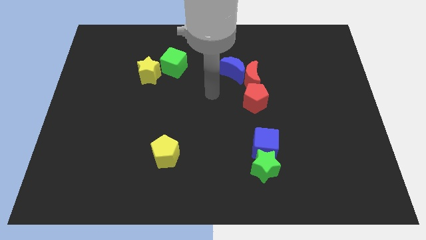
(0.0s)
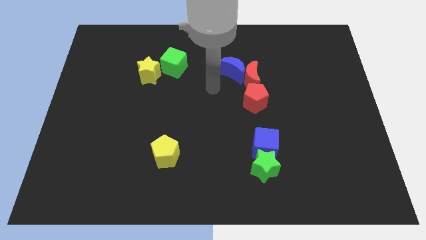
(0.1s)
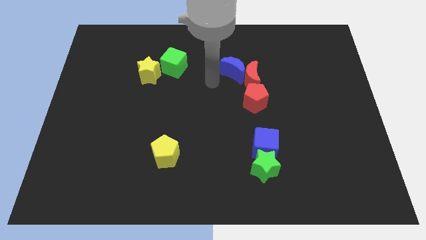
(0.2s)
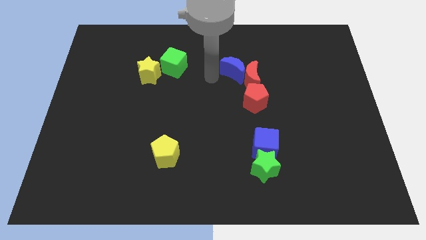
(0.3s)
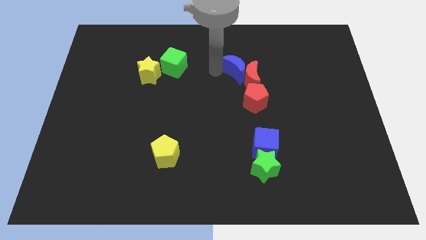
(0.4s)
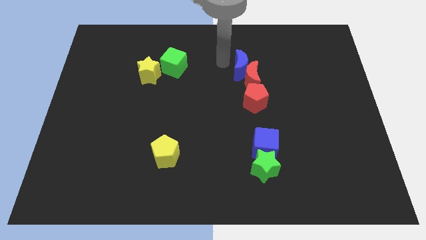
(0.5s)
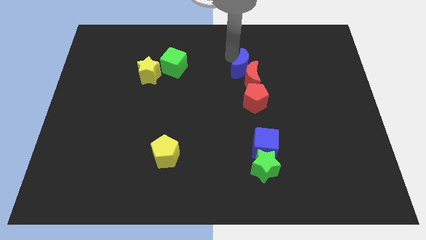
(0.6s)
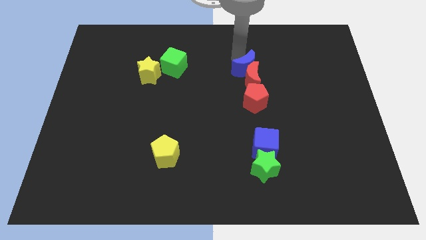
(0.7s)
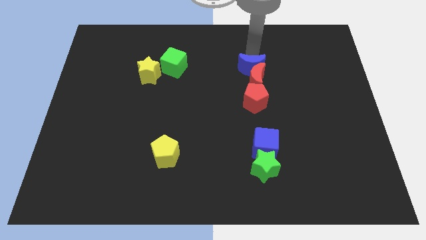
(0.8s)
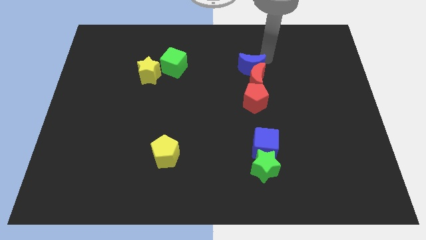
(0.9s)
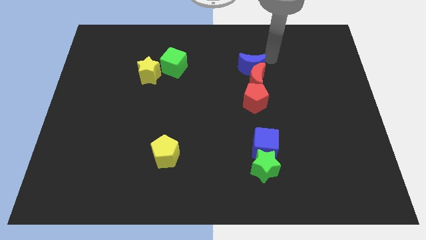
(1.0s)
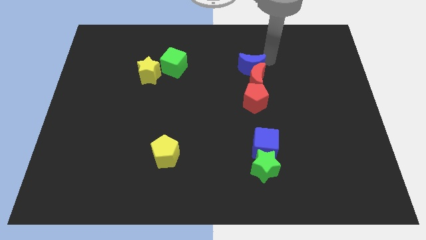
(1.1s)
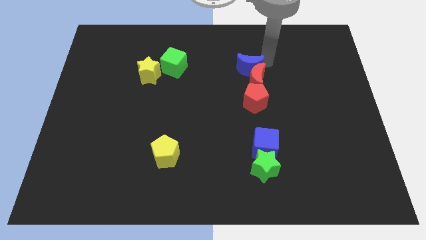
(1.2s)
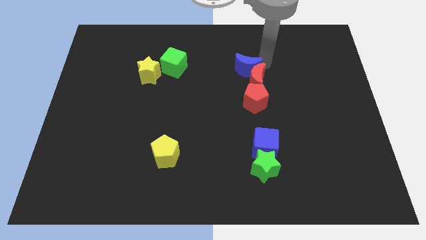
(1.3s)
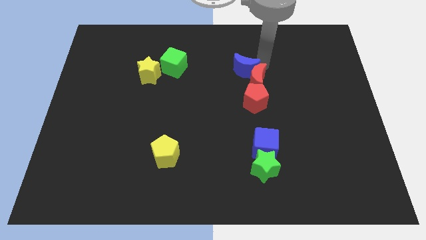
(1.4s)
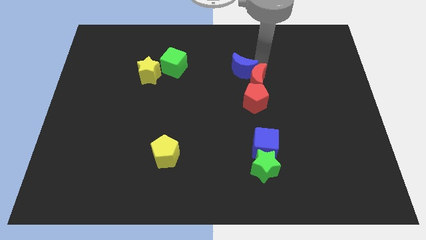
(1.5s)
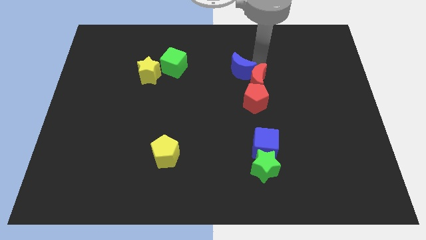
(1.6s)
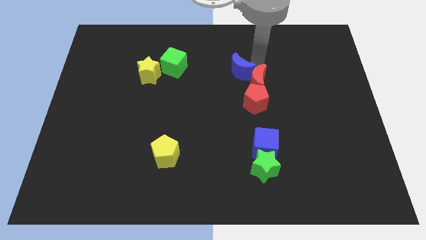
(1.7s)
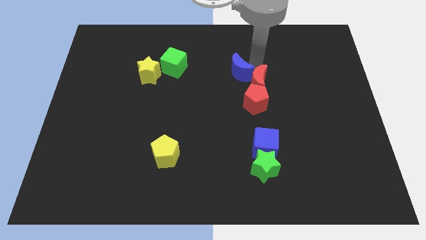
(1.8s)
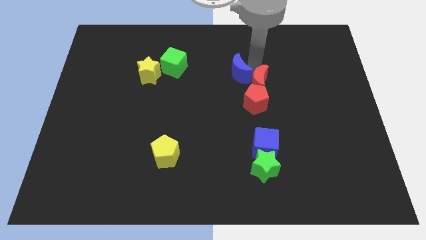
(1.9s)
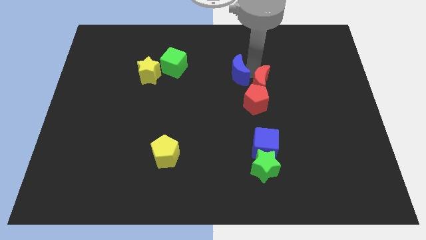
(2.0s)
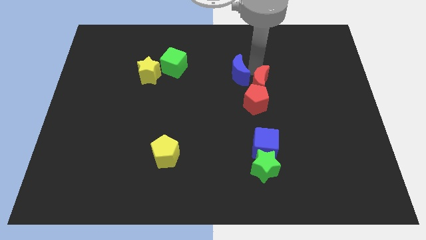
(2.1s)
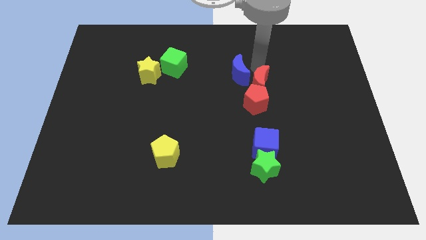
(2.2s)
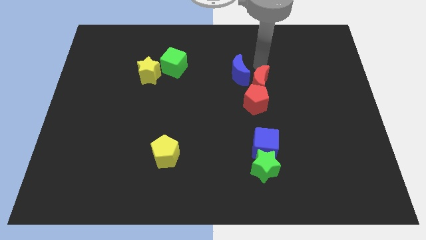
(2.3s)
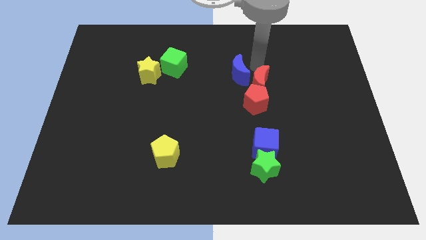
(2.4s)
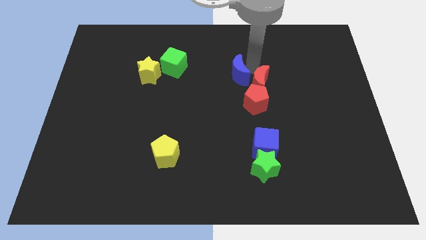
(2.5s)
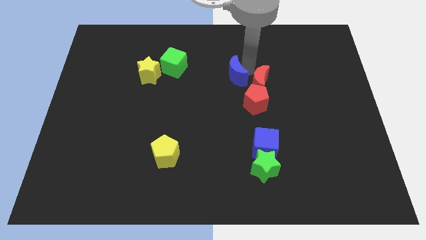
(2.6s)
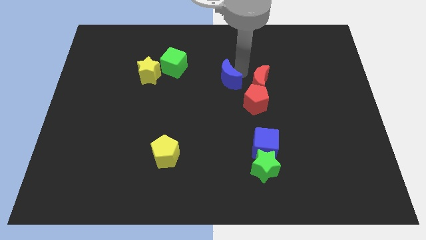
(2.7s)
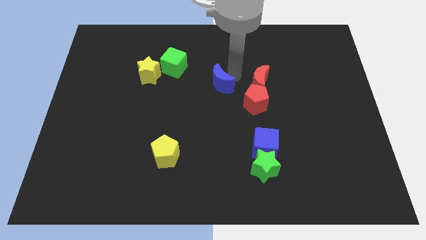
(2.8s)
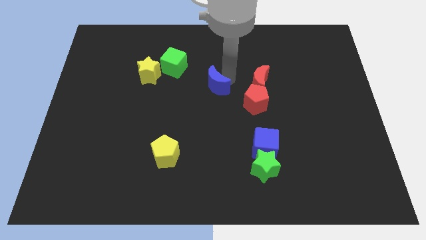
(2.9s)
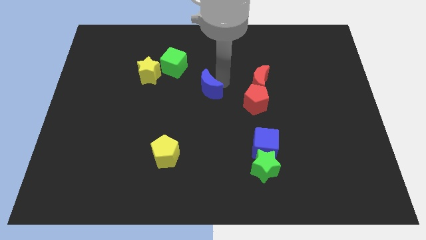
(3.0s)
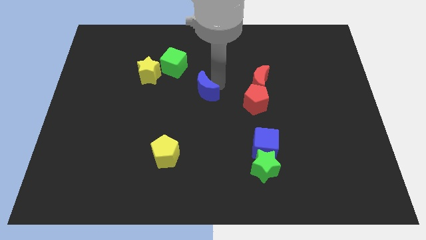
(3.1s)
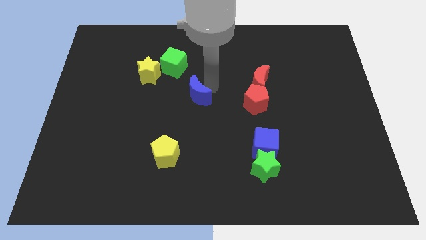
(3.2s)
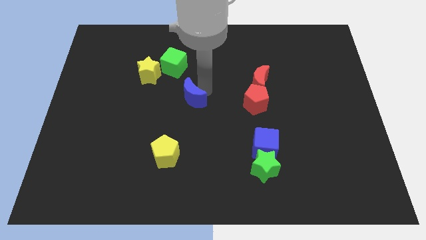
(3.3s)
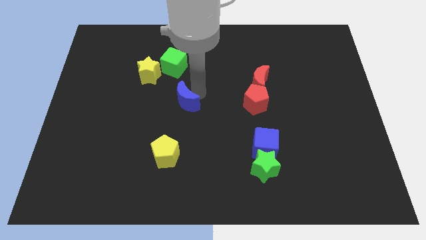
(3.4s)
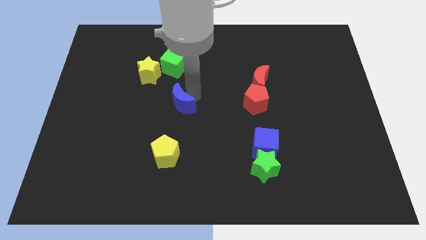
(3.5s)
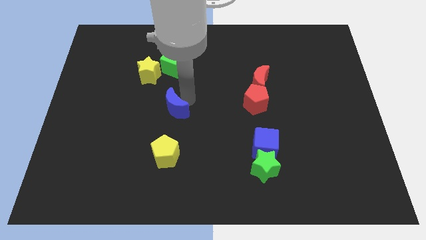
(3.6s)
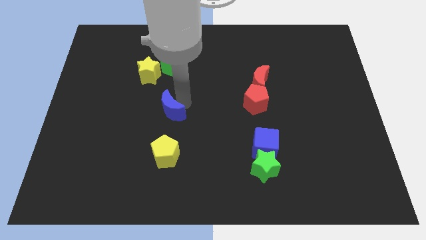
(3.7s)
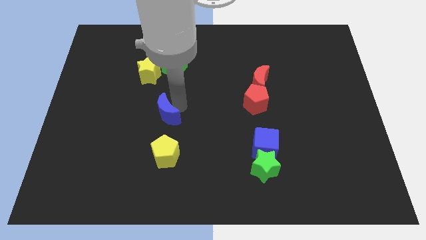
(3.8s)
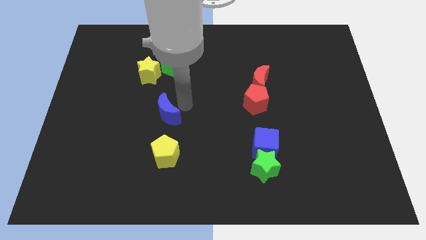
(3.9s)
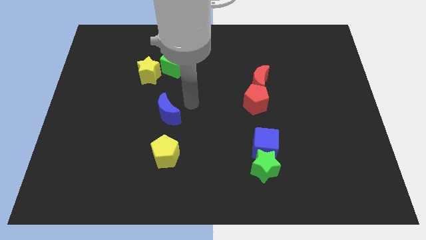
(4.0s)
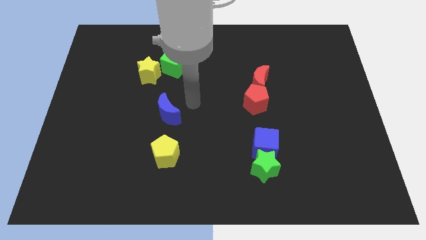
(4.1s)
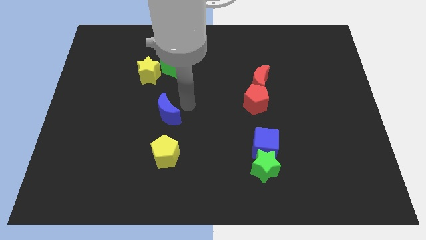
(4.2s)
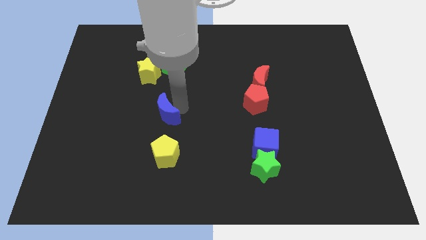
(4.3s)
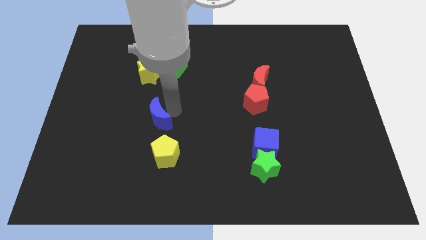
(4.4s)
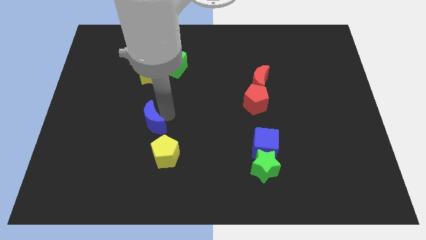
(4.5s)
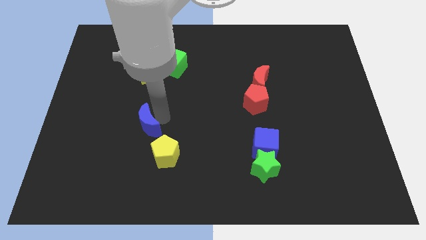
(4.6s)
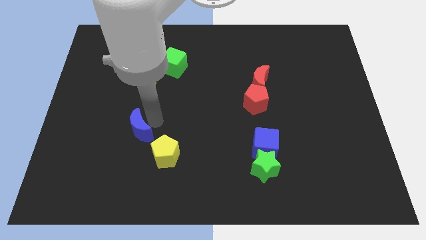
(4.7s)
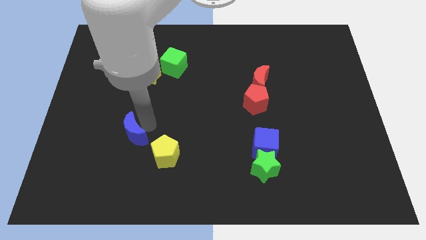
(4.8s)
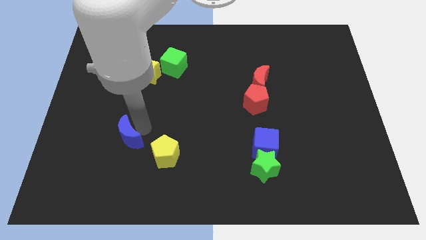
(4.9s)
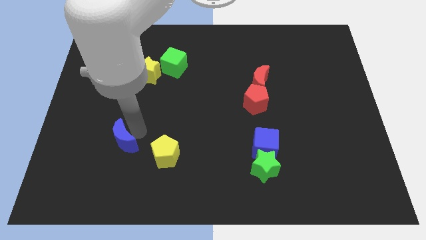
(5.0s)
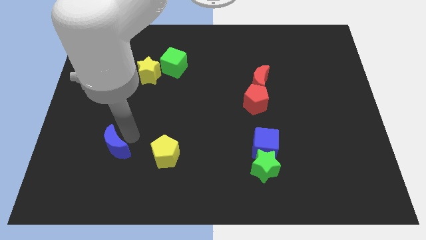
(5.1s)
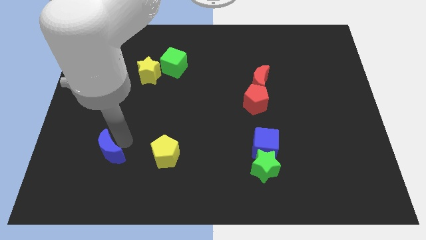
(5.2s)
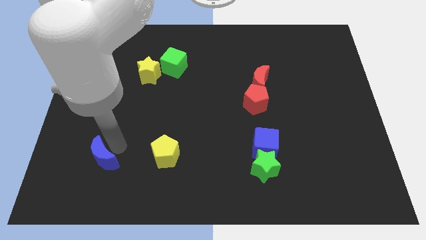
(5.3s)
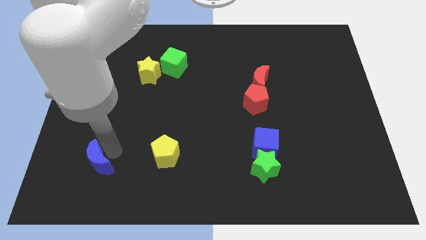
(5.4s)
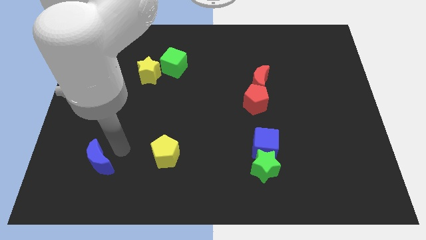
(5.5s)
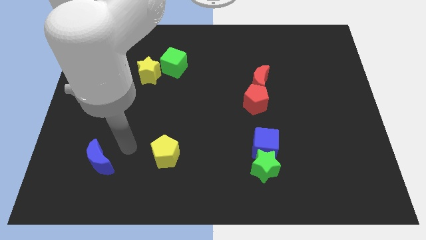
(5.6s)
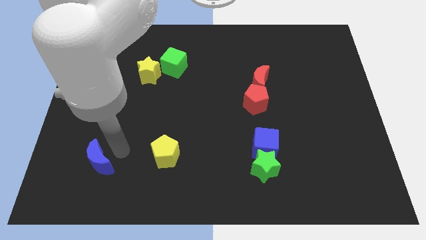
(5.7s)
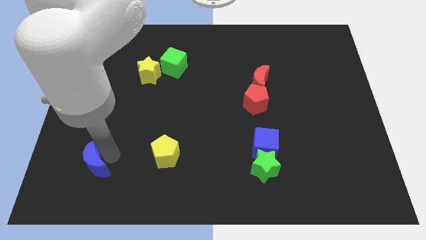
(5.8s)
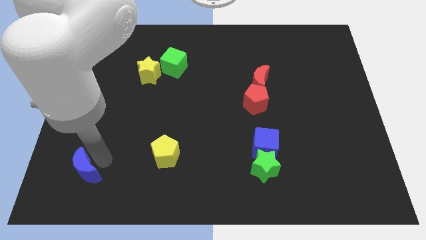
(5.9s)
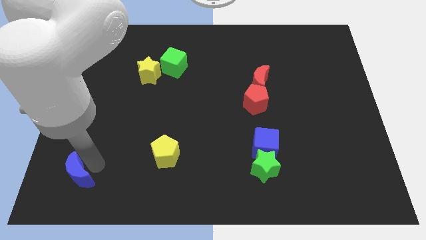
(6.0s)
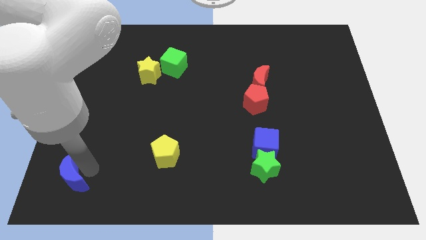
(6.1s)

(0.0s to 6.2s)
put the blue moon to the bottom left corner
